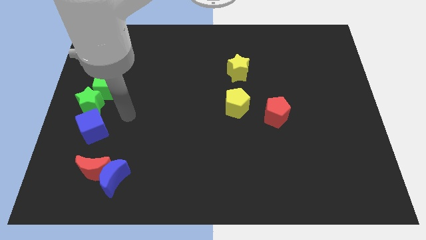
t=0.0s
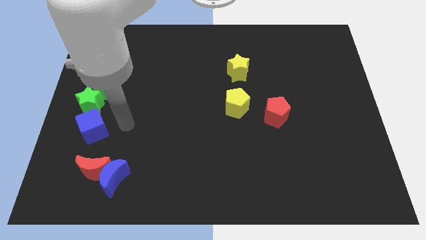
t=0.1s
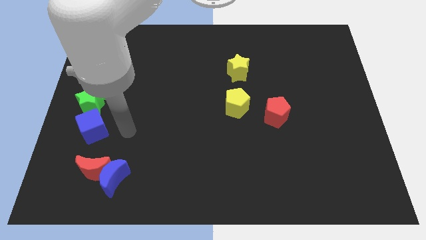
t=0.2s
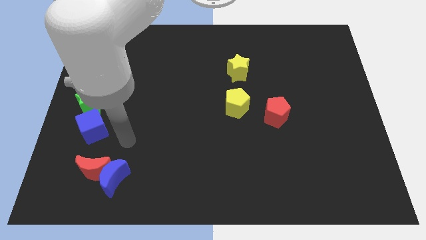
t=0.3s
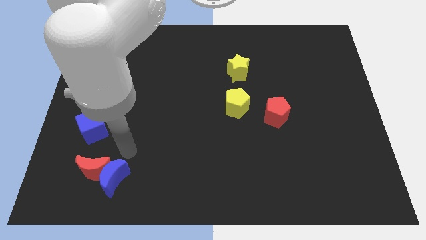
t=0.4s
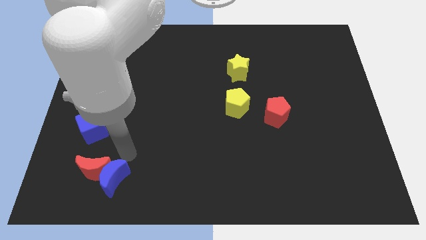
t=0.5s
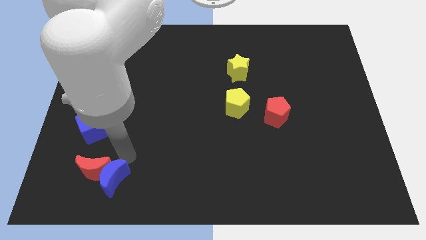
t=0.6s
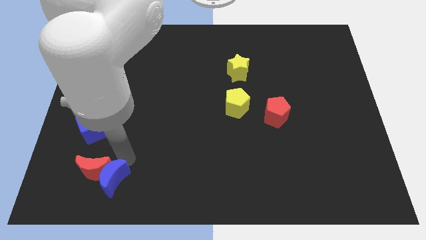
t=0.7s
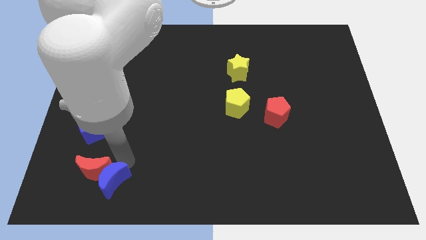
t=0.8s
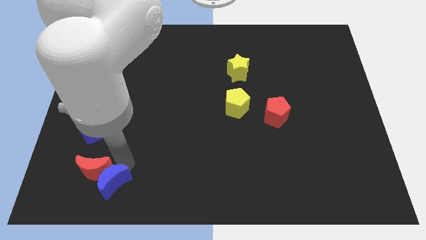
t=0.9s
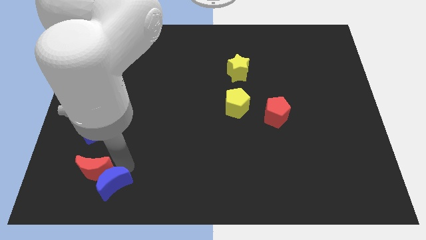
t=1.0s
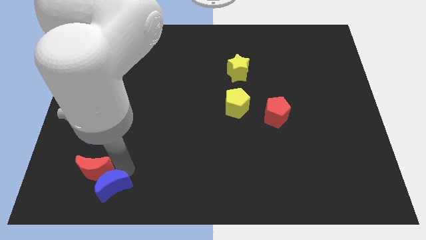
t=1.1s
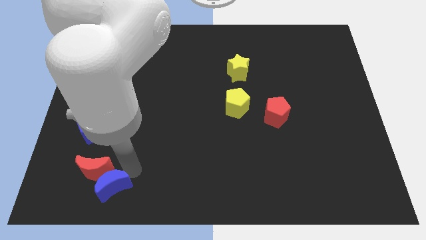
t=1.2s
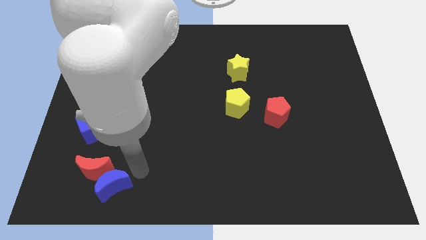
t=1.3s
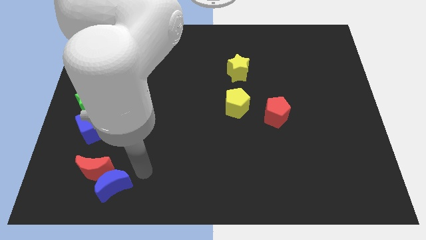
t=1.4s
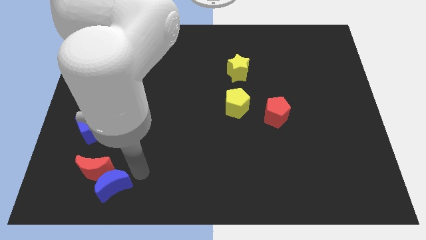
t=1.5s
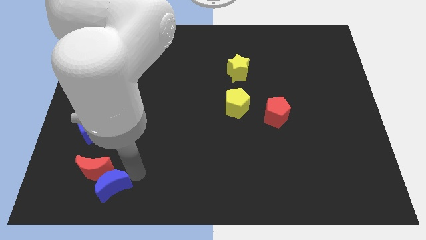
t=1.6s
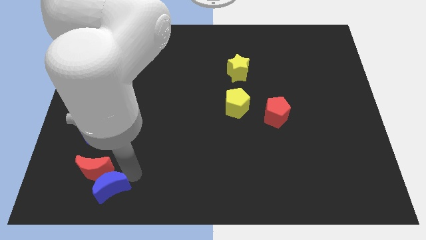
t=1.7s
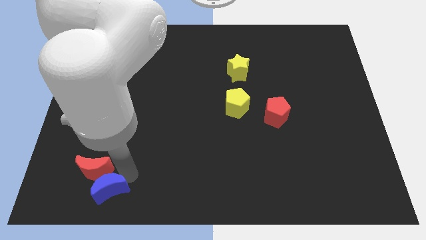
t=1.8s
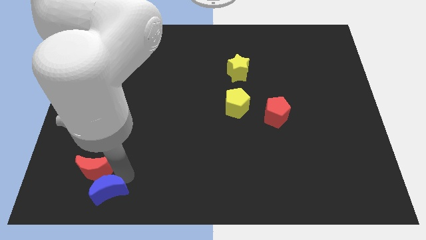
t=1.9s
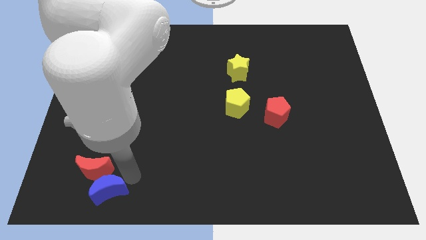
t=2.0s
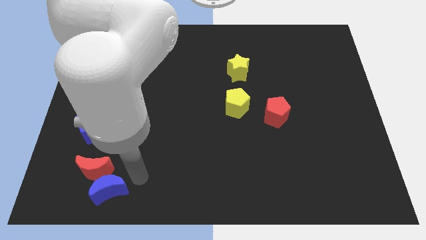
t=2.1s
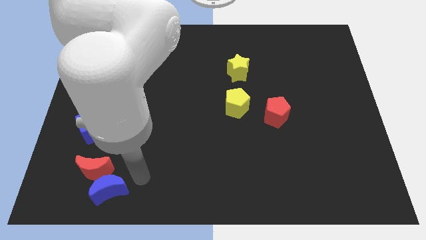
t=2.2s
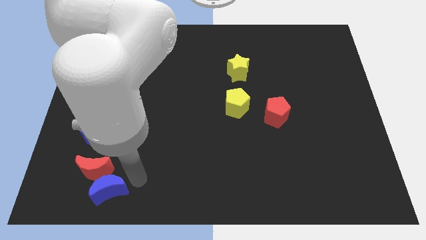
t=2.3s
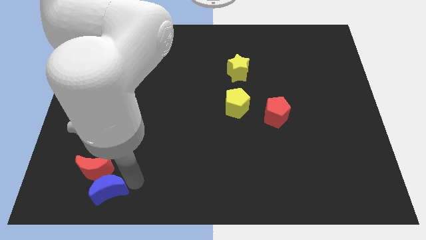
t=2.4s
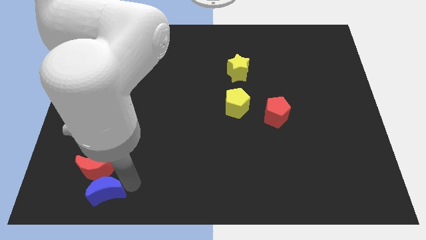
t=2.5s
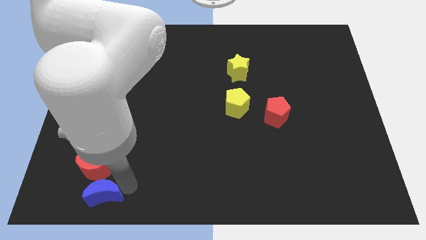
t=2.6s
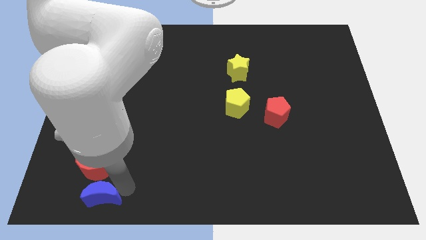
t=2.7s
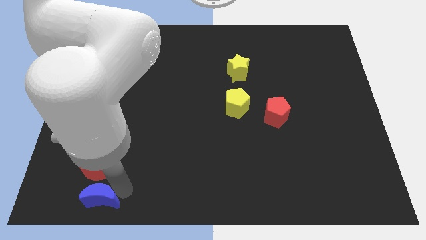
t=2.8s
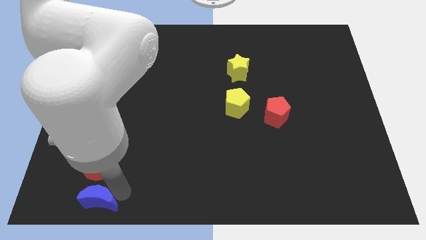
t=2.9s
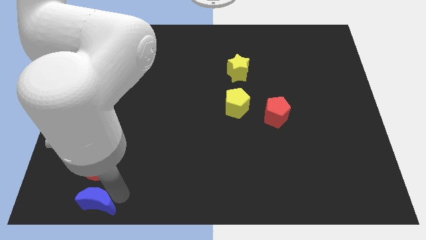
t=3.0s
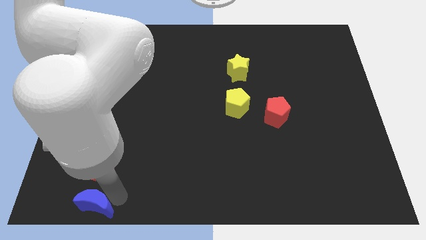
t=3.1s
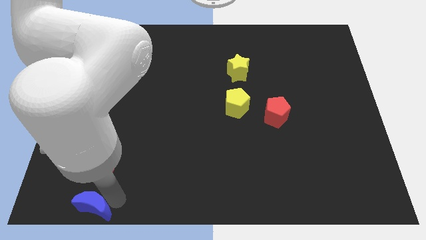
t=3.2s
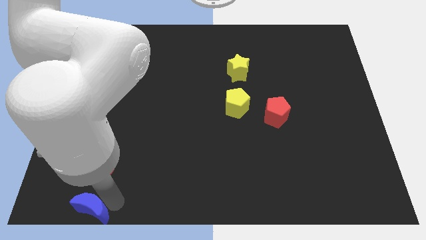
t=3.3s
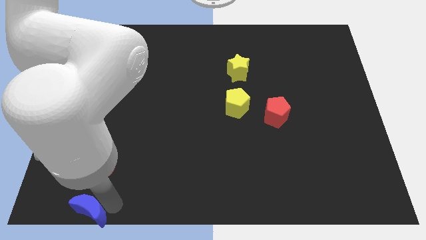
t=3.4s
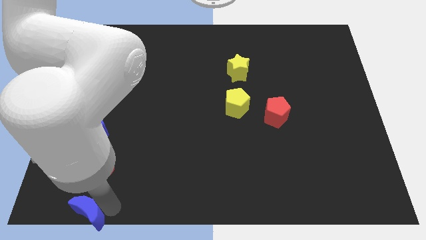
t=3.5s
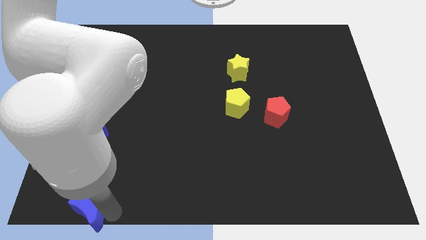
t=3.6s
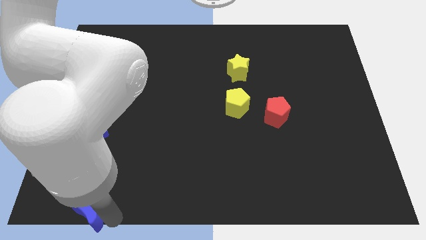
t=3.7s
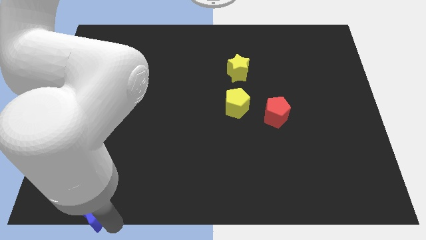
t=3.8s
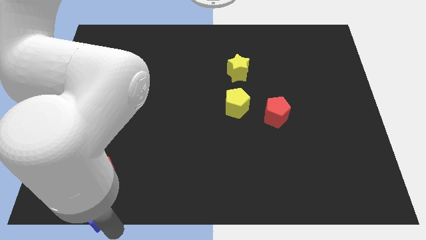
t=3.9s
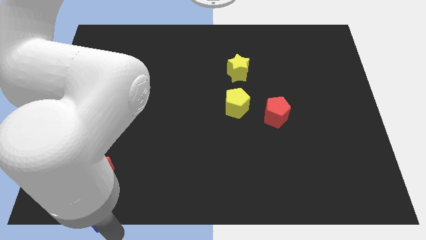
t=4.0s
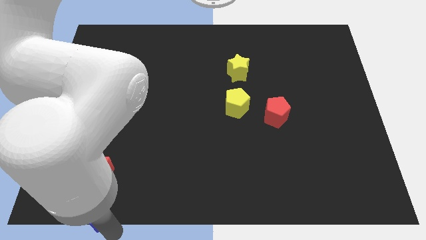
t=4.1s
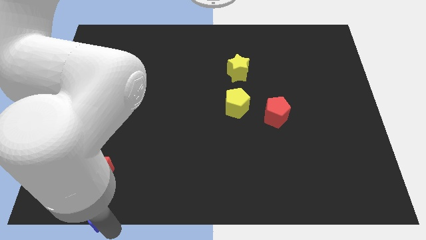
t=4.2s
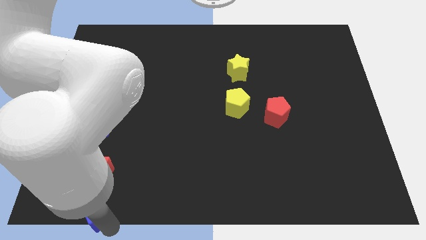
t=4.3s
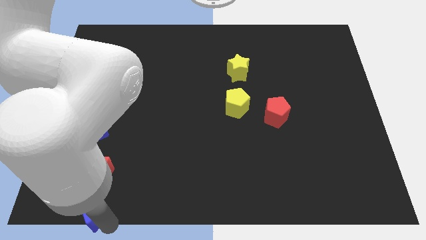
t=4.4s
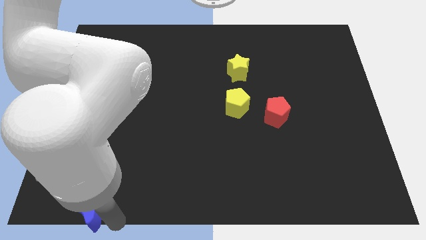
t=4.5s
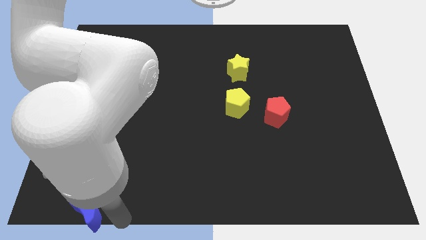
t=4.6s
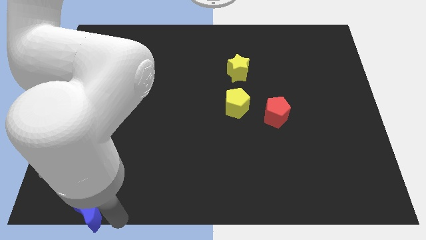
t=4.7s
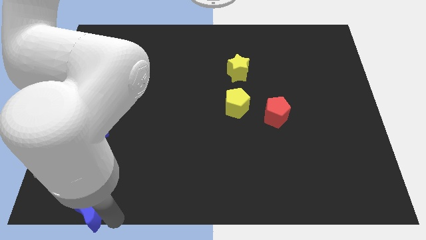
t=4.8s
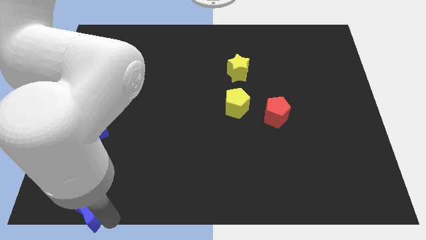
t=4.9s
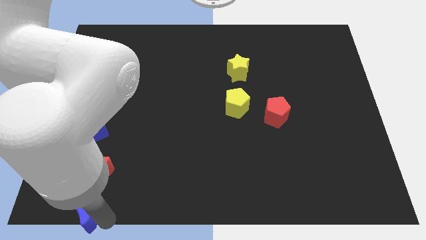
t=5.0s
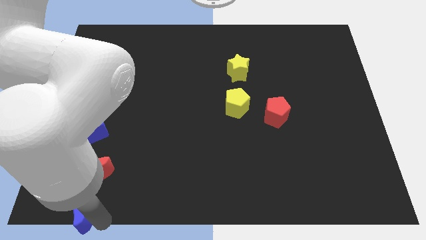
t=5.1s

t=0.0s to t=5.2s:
push the blue moon to the bottom left corner

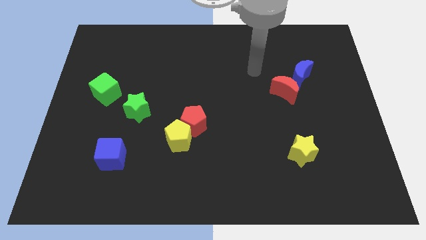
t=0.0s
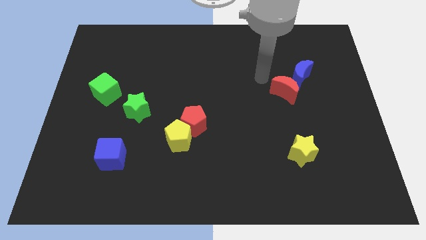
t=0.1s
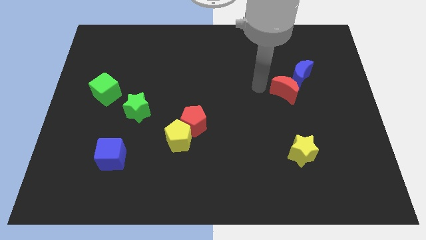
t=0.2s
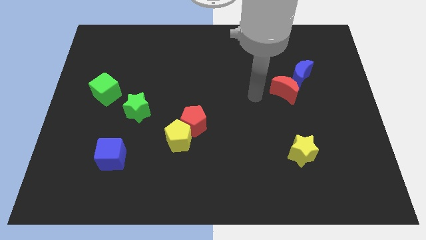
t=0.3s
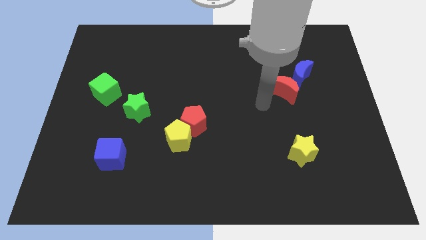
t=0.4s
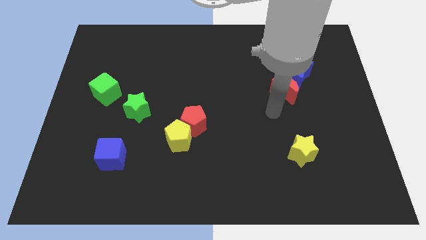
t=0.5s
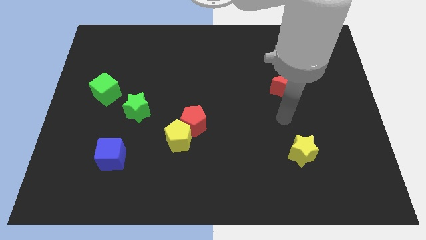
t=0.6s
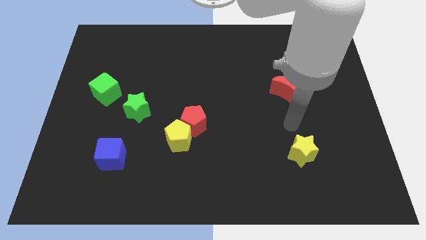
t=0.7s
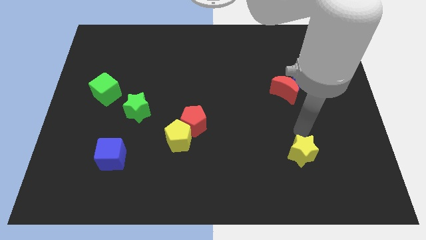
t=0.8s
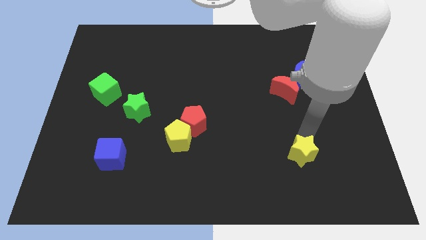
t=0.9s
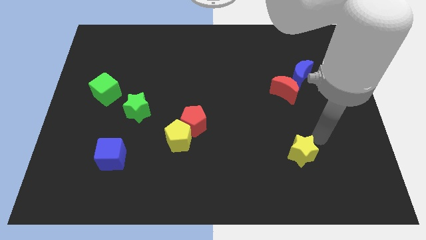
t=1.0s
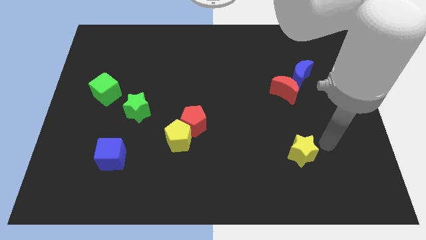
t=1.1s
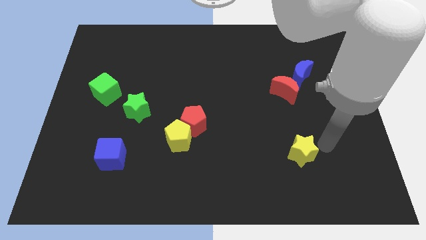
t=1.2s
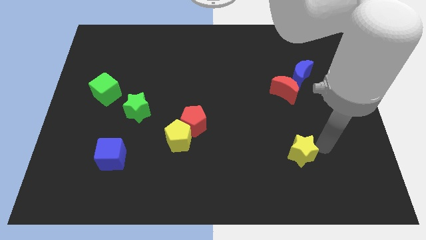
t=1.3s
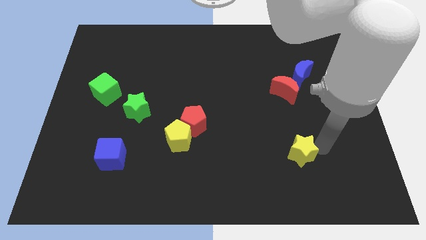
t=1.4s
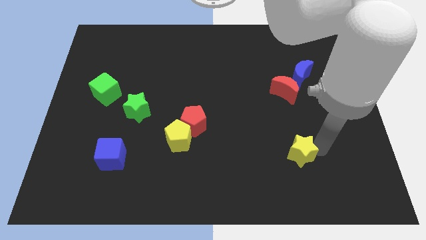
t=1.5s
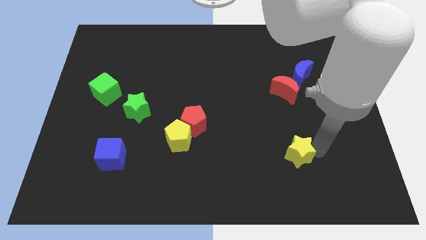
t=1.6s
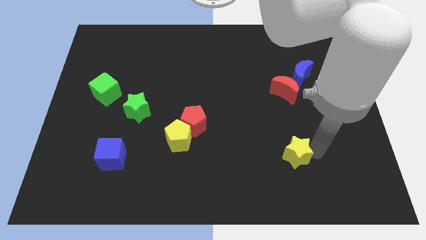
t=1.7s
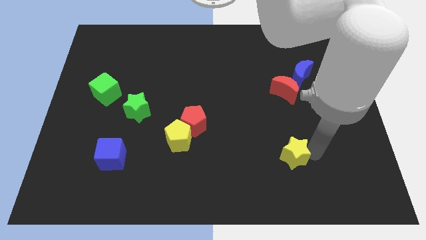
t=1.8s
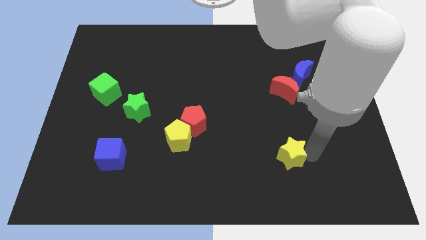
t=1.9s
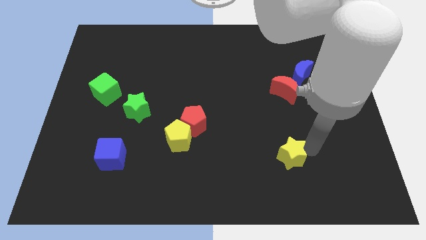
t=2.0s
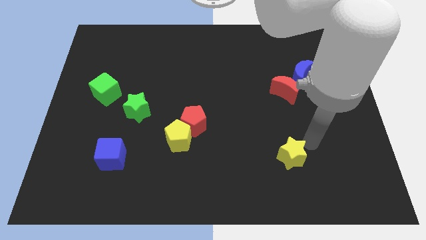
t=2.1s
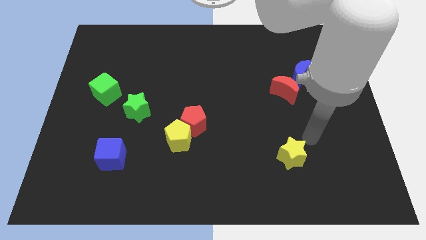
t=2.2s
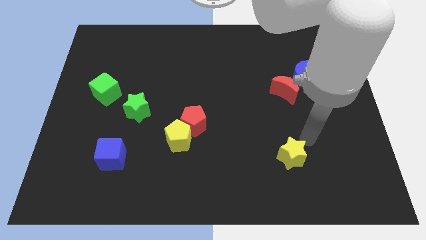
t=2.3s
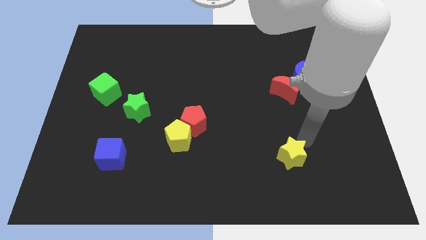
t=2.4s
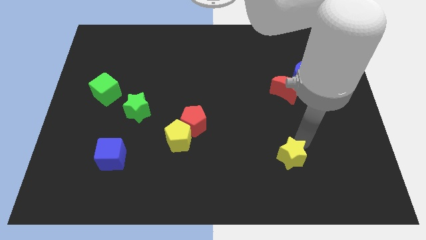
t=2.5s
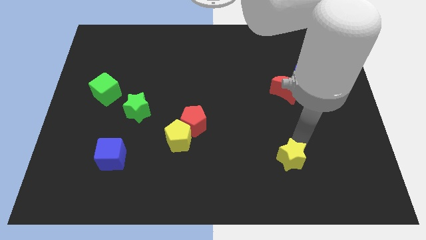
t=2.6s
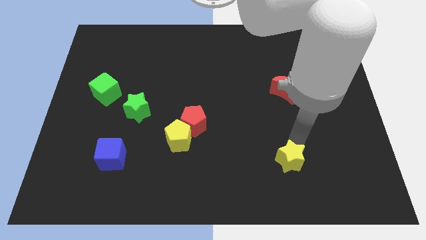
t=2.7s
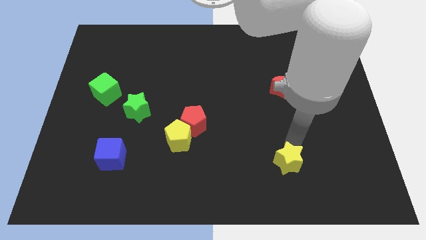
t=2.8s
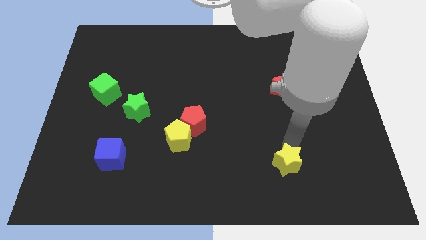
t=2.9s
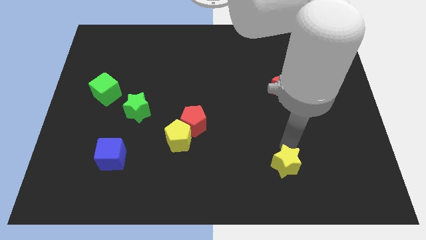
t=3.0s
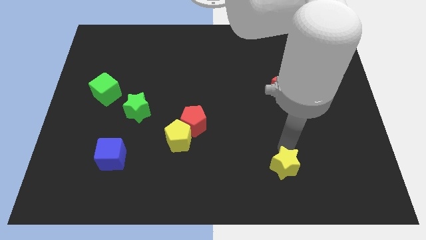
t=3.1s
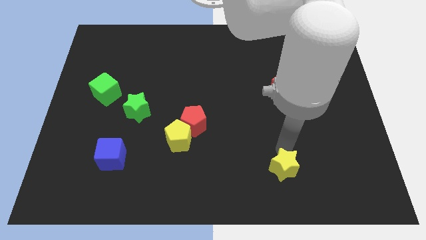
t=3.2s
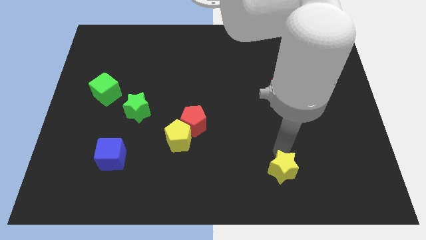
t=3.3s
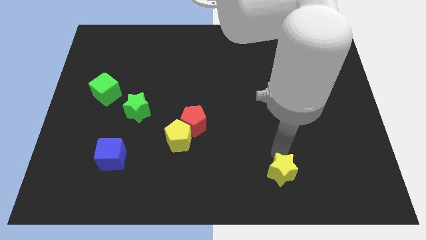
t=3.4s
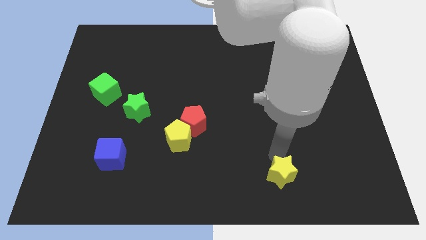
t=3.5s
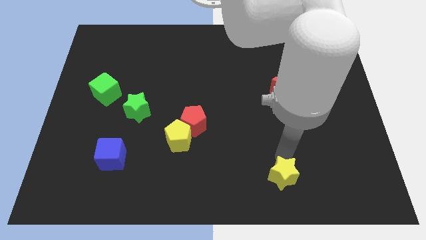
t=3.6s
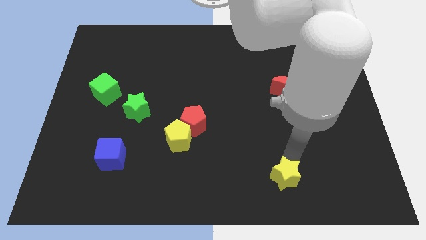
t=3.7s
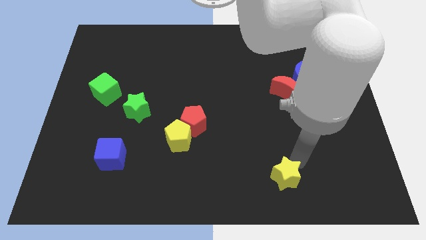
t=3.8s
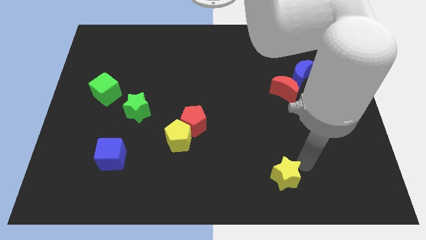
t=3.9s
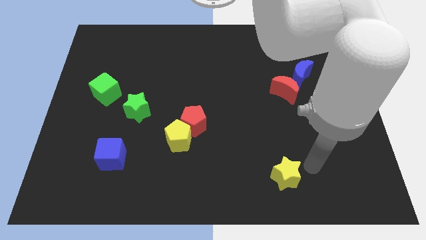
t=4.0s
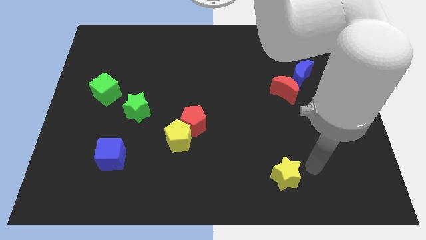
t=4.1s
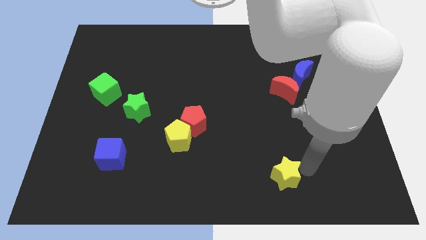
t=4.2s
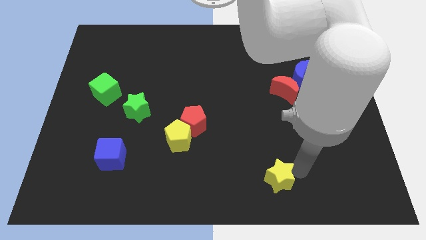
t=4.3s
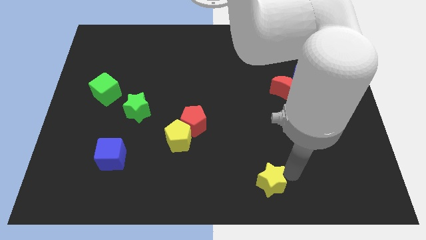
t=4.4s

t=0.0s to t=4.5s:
slide the yellow star to the bottom
